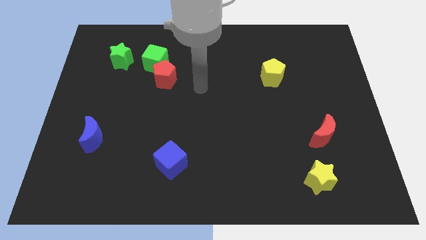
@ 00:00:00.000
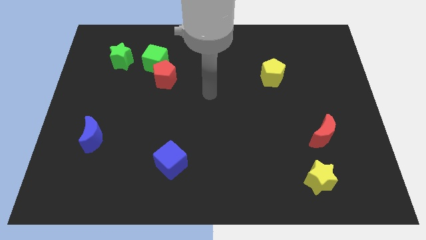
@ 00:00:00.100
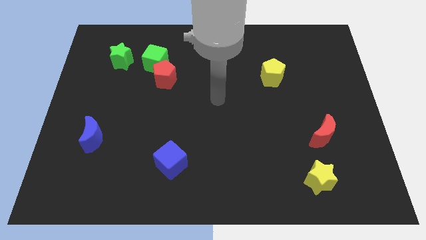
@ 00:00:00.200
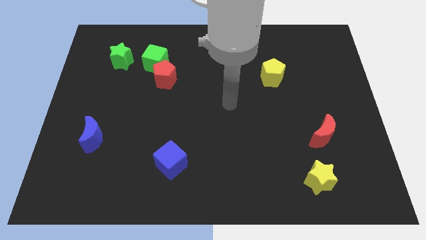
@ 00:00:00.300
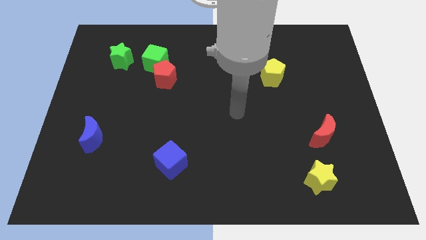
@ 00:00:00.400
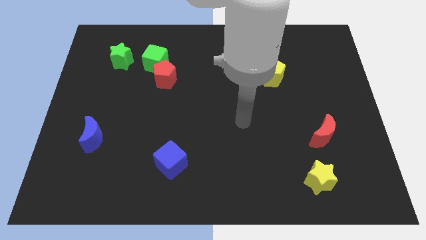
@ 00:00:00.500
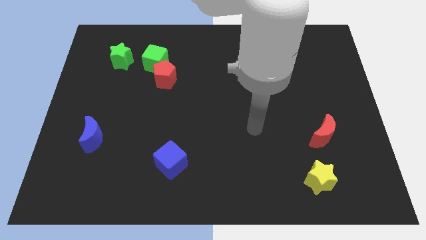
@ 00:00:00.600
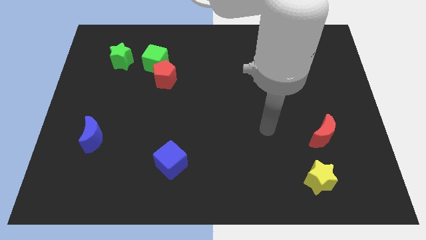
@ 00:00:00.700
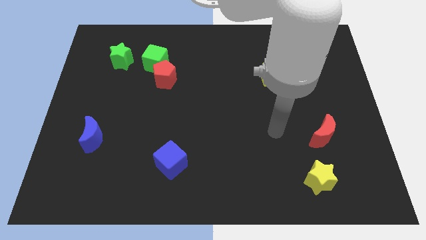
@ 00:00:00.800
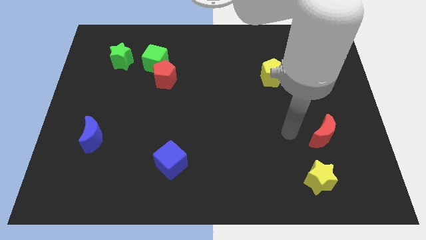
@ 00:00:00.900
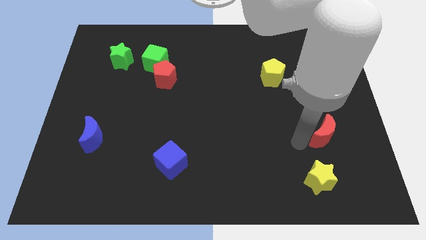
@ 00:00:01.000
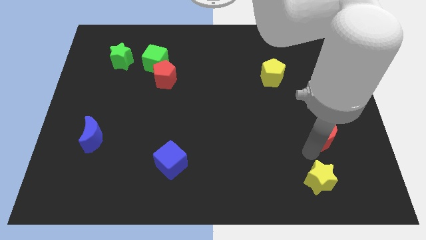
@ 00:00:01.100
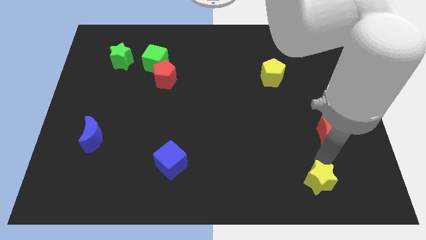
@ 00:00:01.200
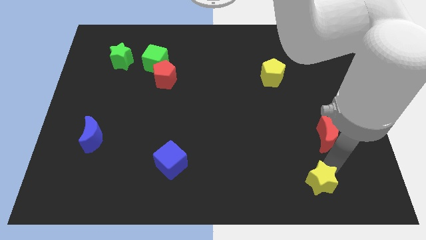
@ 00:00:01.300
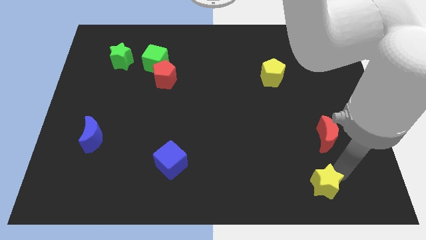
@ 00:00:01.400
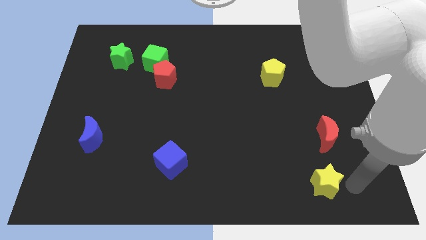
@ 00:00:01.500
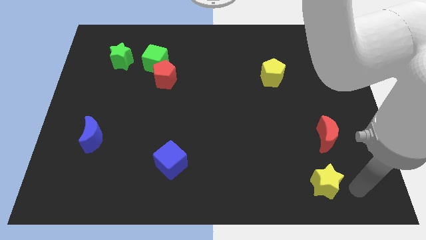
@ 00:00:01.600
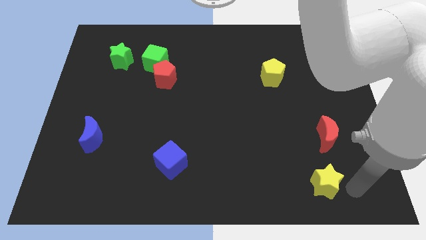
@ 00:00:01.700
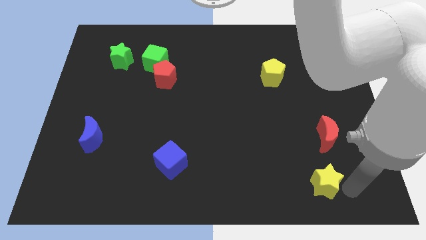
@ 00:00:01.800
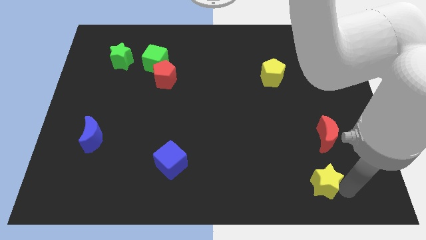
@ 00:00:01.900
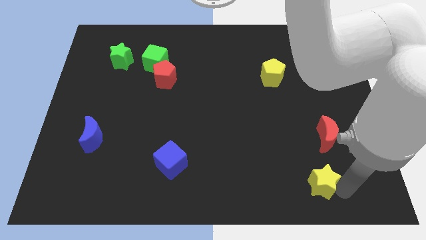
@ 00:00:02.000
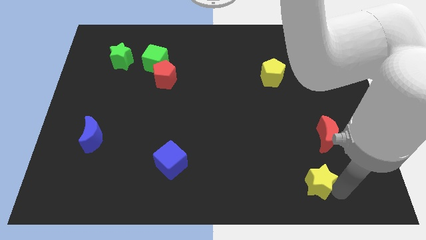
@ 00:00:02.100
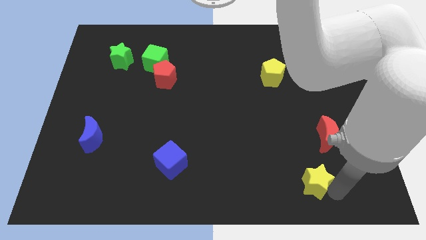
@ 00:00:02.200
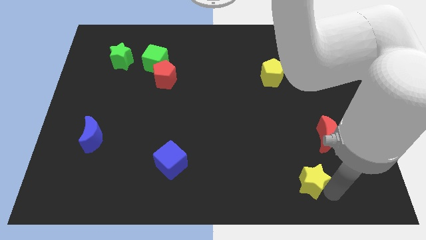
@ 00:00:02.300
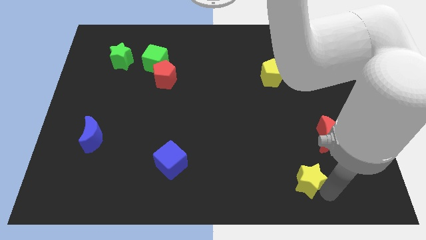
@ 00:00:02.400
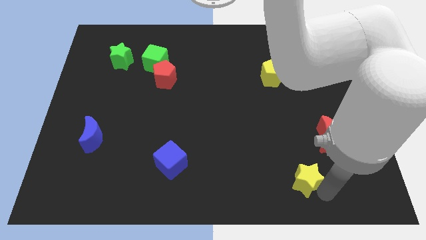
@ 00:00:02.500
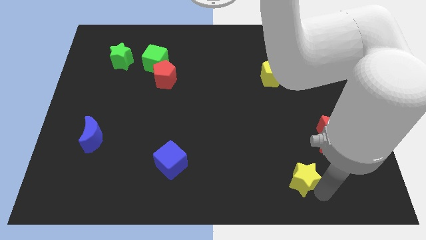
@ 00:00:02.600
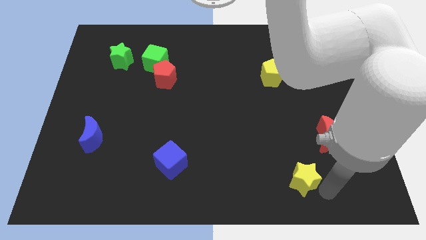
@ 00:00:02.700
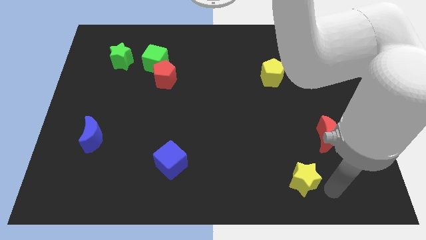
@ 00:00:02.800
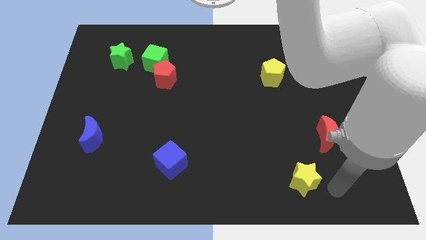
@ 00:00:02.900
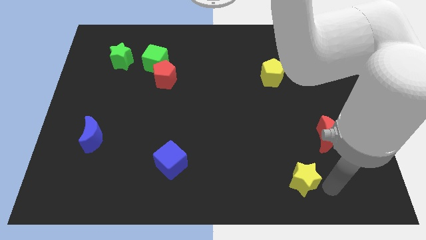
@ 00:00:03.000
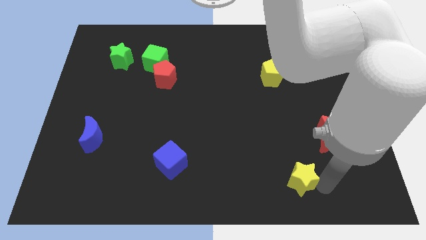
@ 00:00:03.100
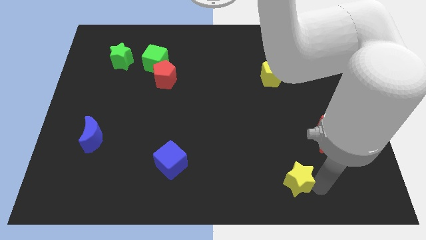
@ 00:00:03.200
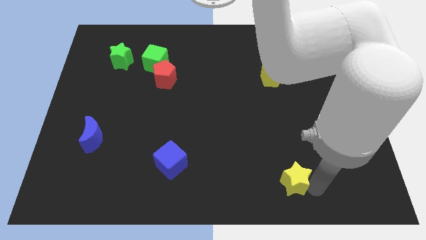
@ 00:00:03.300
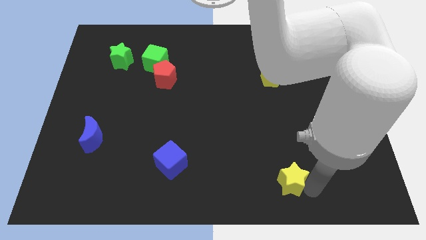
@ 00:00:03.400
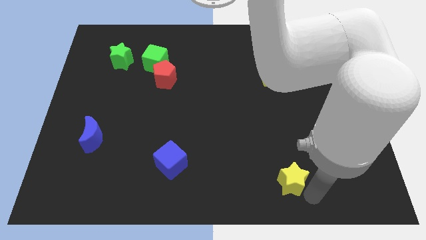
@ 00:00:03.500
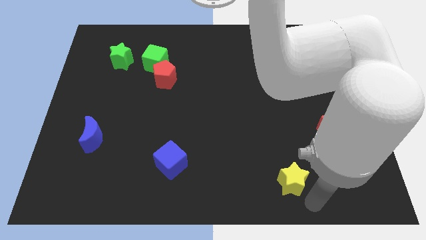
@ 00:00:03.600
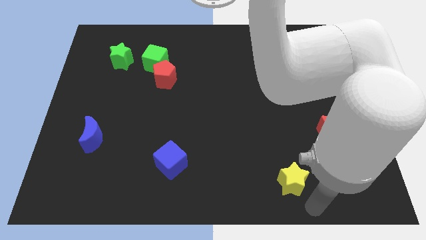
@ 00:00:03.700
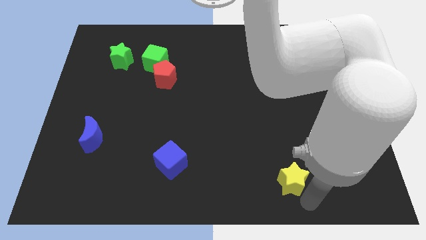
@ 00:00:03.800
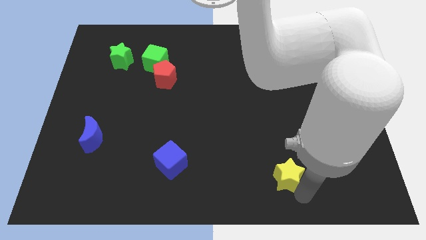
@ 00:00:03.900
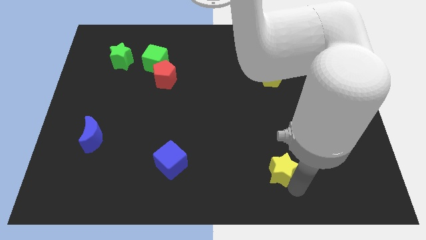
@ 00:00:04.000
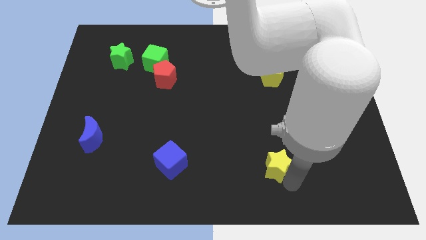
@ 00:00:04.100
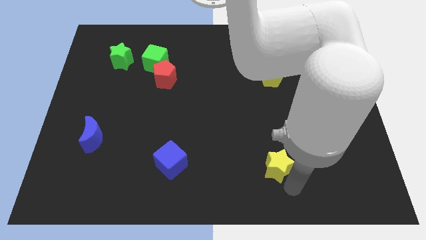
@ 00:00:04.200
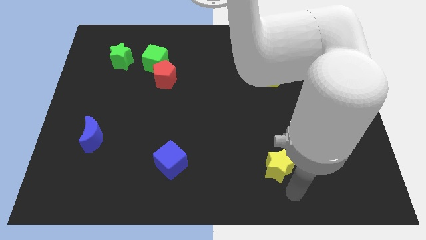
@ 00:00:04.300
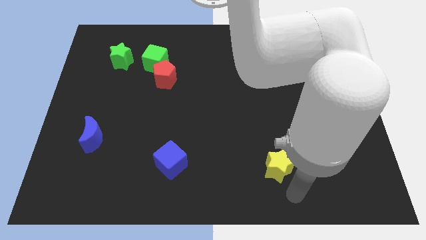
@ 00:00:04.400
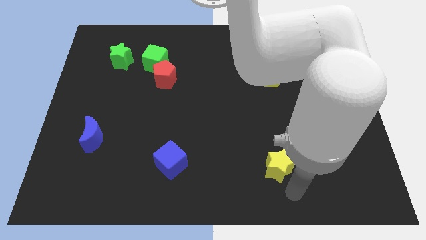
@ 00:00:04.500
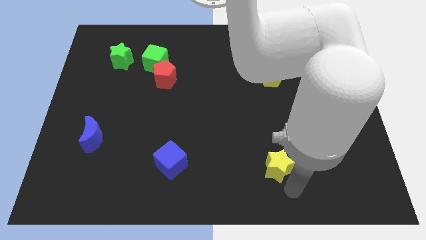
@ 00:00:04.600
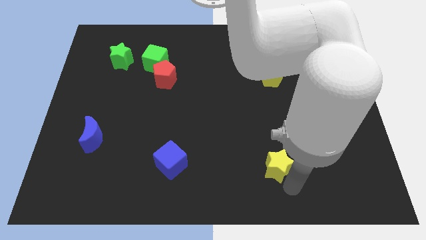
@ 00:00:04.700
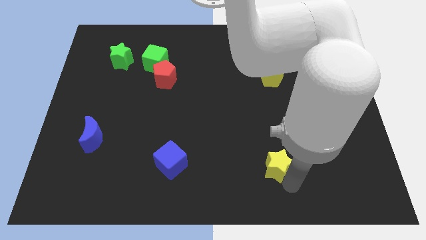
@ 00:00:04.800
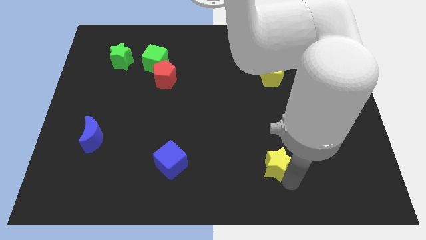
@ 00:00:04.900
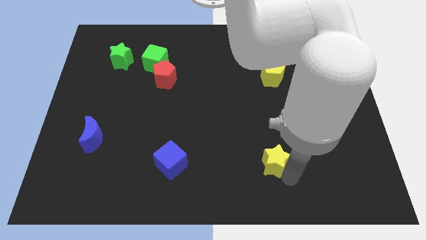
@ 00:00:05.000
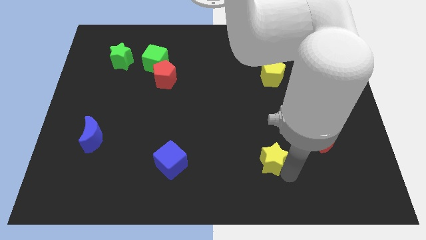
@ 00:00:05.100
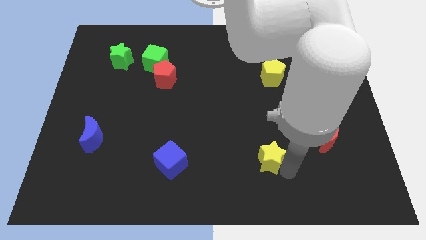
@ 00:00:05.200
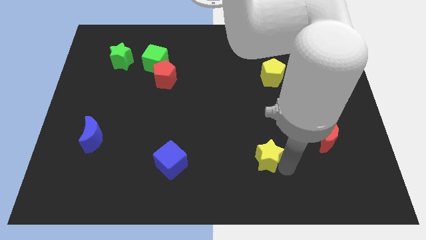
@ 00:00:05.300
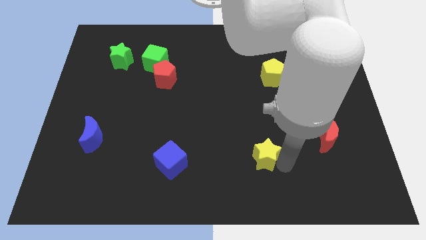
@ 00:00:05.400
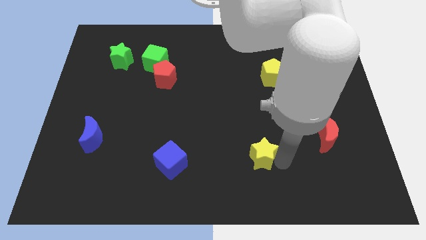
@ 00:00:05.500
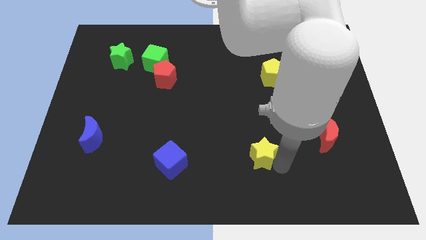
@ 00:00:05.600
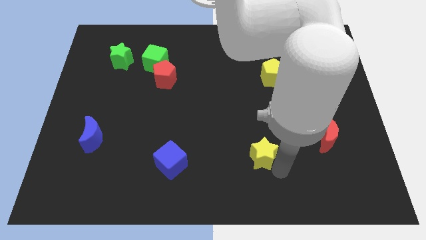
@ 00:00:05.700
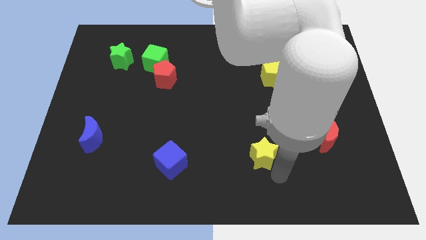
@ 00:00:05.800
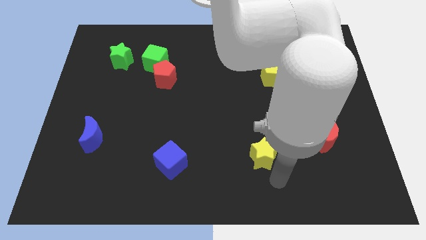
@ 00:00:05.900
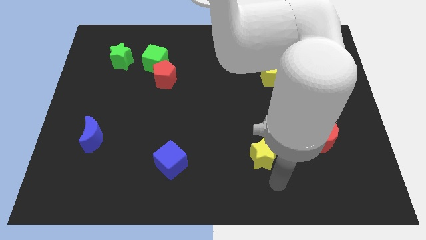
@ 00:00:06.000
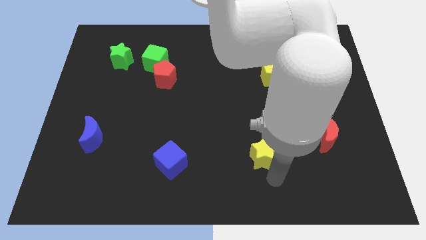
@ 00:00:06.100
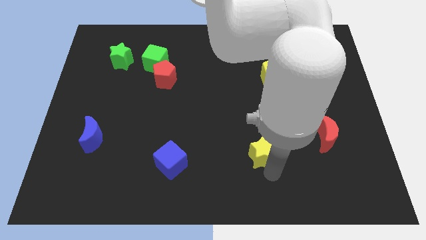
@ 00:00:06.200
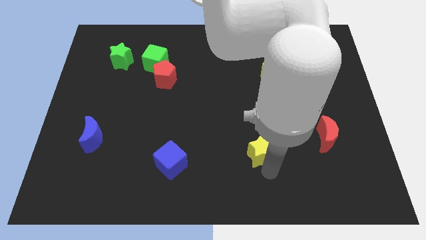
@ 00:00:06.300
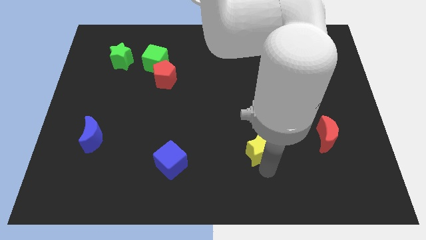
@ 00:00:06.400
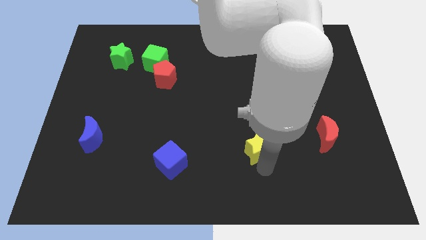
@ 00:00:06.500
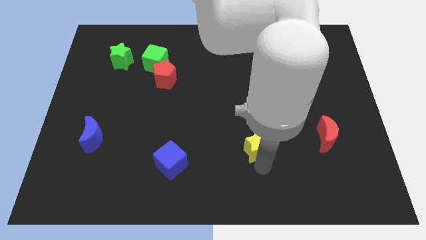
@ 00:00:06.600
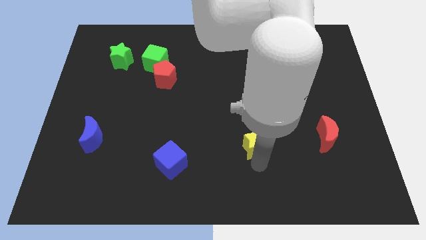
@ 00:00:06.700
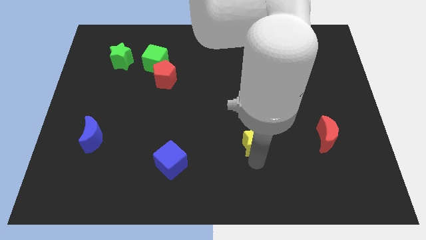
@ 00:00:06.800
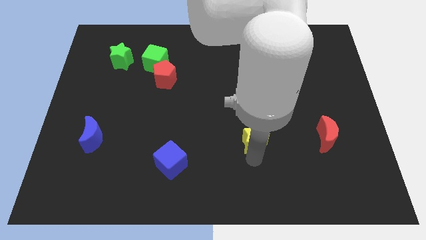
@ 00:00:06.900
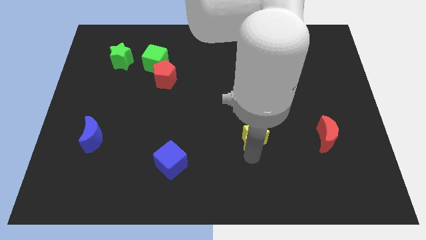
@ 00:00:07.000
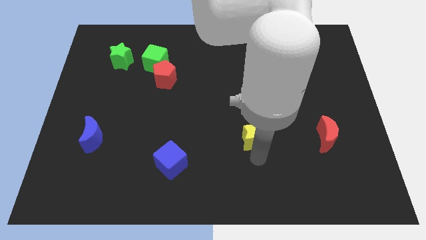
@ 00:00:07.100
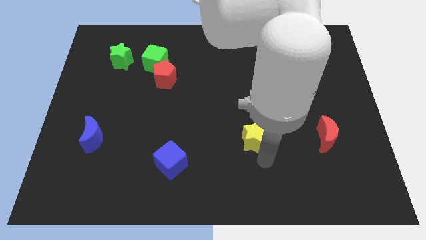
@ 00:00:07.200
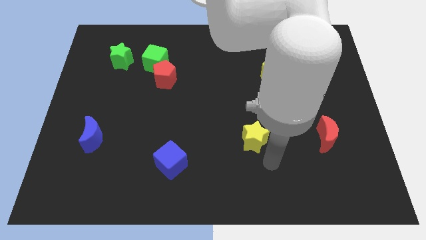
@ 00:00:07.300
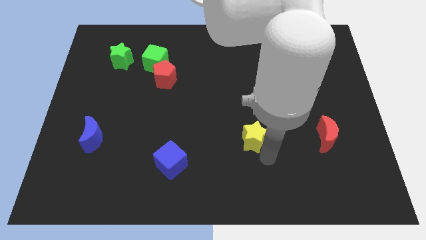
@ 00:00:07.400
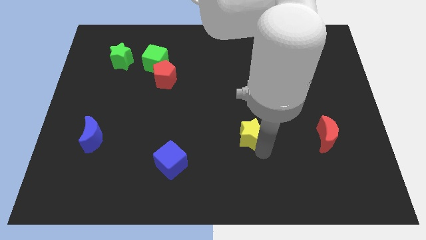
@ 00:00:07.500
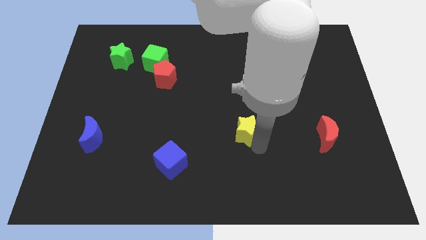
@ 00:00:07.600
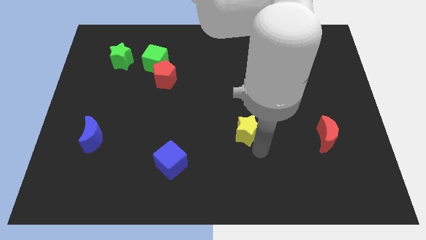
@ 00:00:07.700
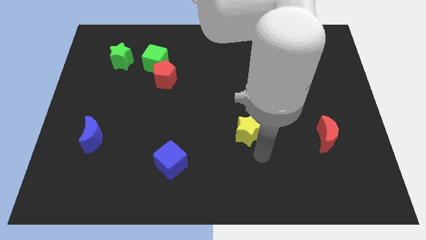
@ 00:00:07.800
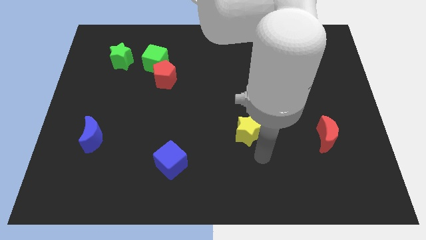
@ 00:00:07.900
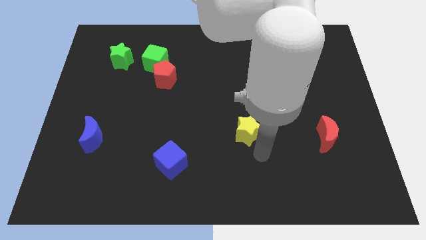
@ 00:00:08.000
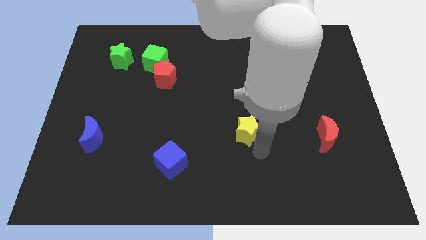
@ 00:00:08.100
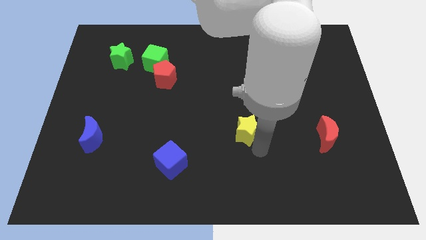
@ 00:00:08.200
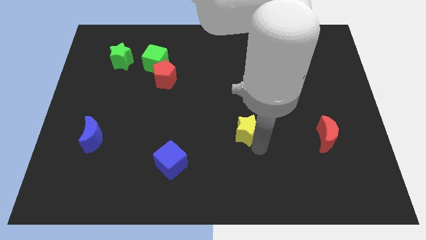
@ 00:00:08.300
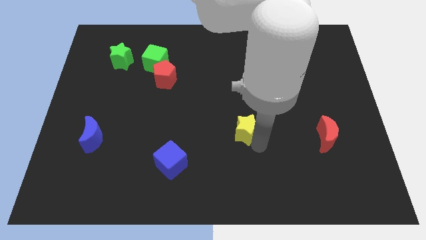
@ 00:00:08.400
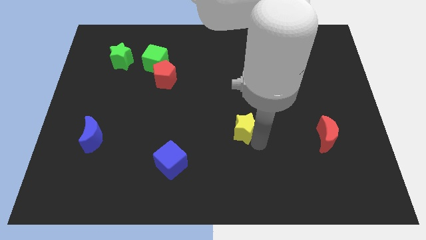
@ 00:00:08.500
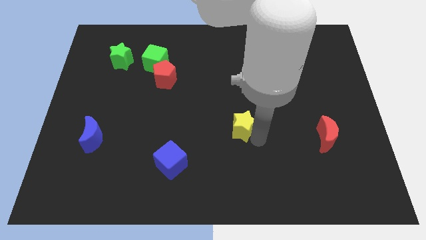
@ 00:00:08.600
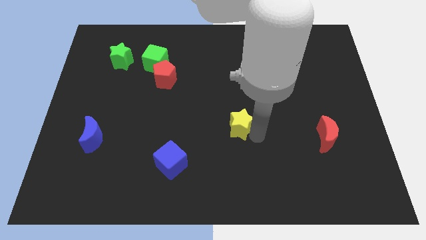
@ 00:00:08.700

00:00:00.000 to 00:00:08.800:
move the yellow star upwards and to the left
